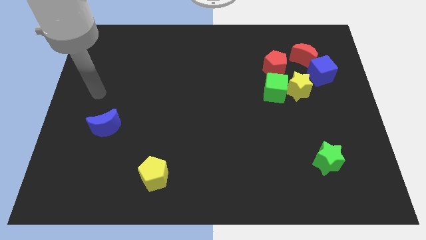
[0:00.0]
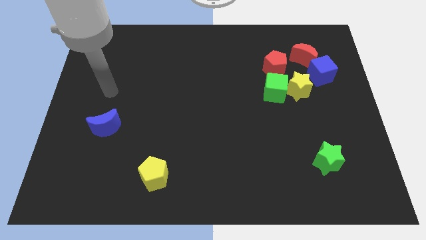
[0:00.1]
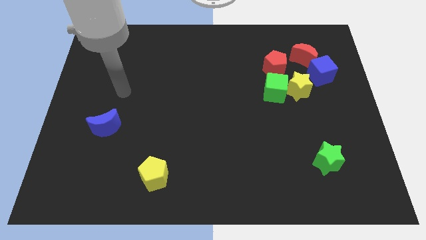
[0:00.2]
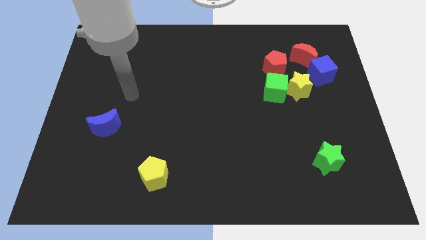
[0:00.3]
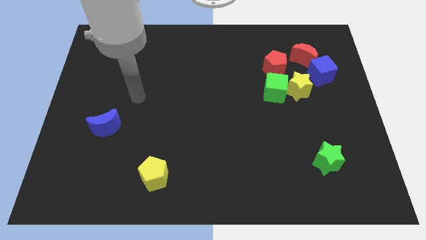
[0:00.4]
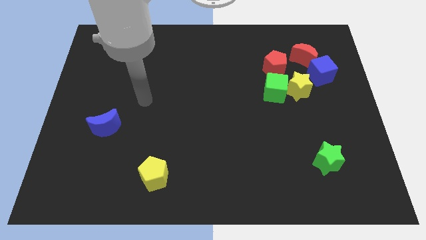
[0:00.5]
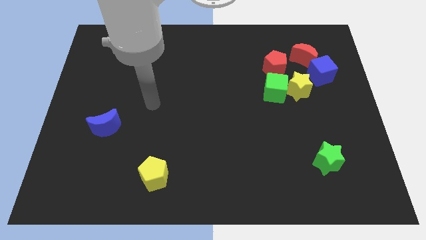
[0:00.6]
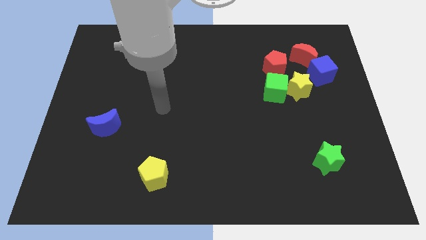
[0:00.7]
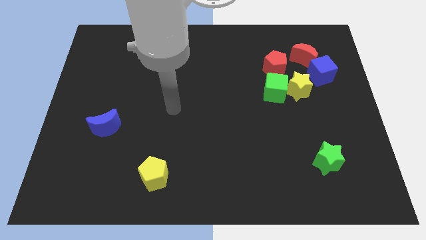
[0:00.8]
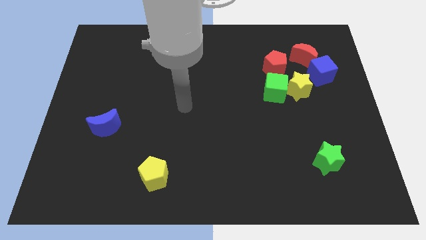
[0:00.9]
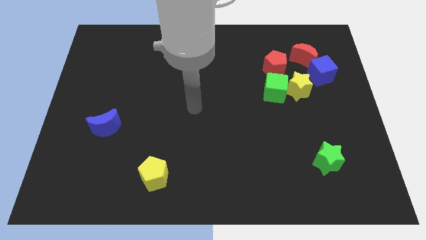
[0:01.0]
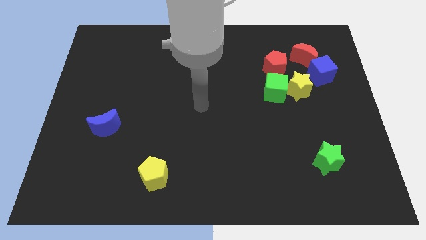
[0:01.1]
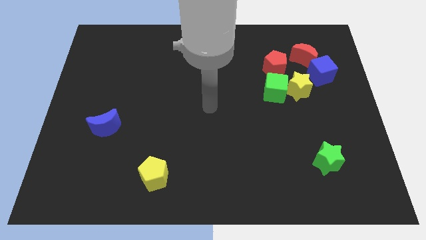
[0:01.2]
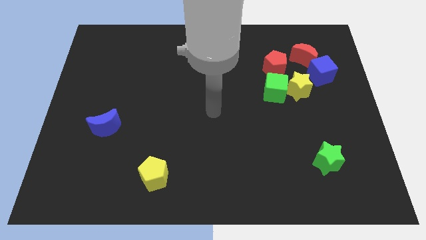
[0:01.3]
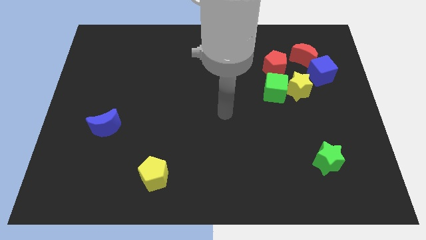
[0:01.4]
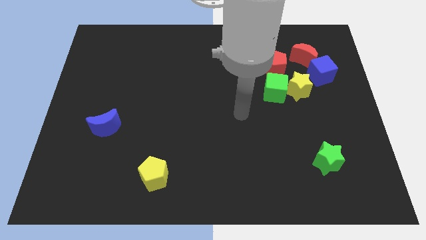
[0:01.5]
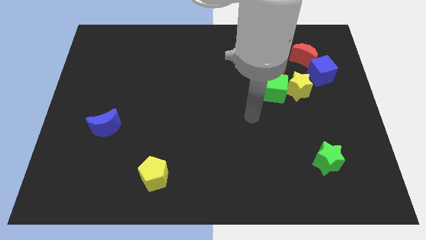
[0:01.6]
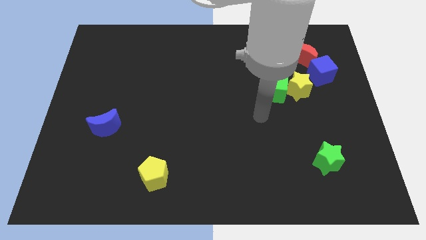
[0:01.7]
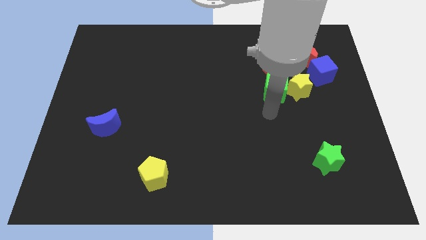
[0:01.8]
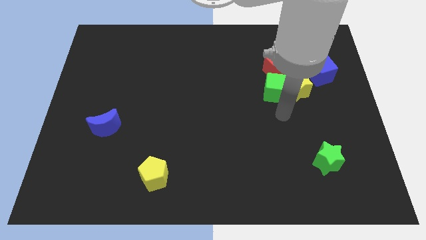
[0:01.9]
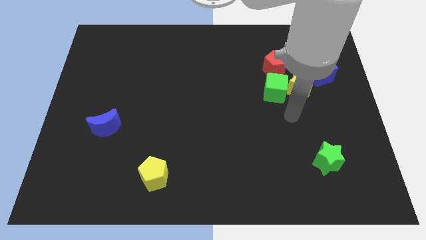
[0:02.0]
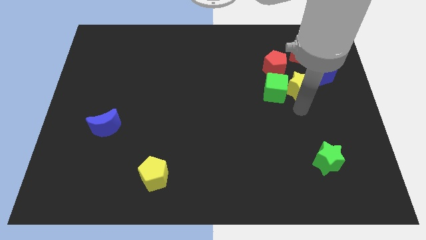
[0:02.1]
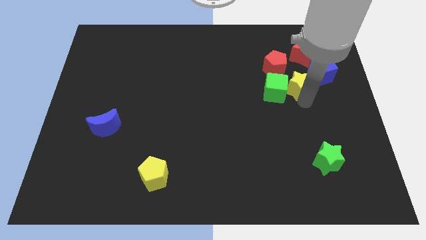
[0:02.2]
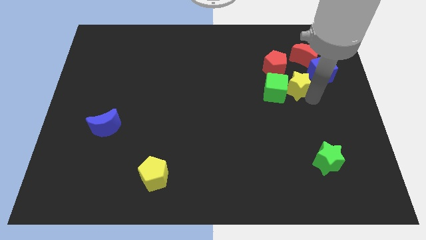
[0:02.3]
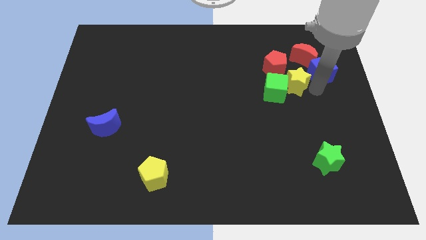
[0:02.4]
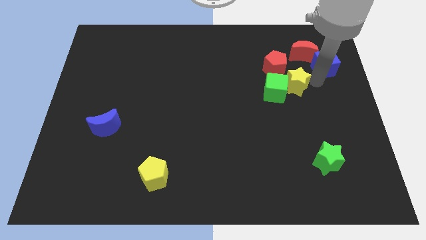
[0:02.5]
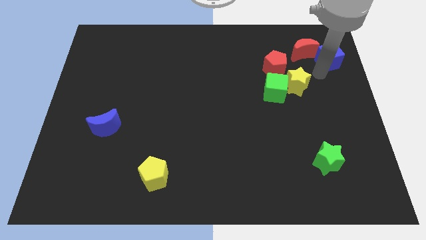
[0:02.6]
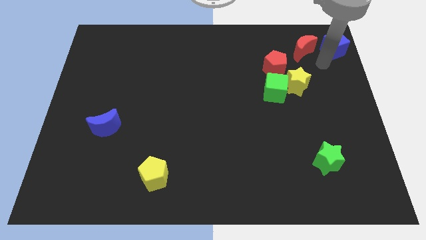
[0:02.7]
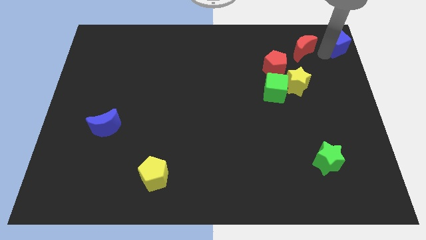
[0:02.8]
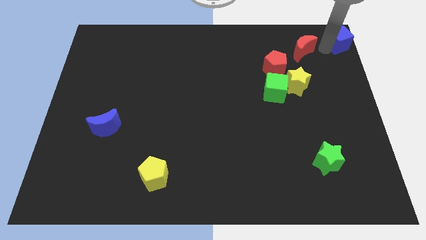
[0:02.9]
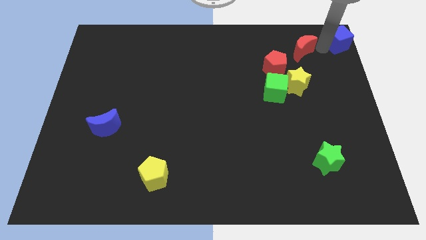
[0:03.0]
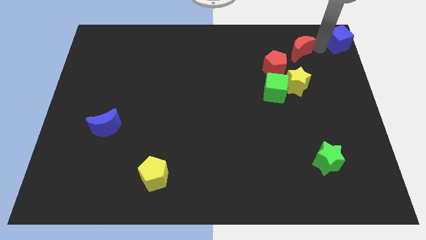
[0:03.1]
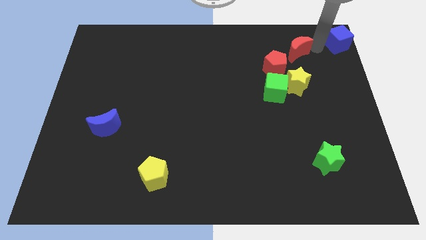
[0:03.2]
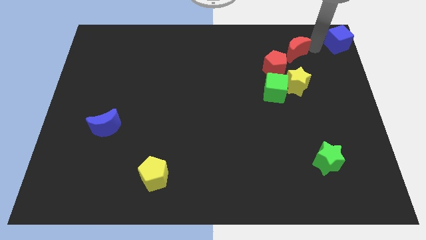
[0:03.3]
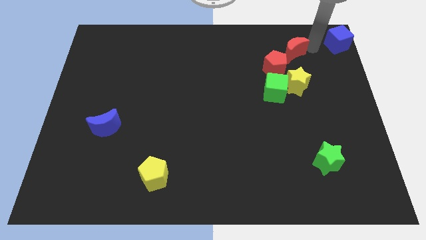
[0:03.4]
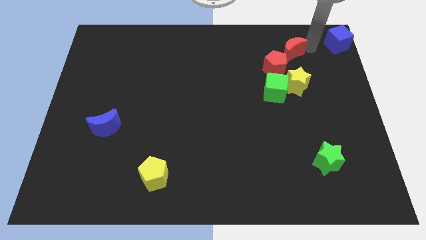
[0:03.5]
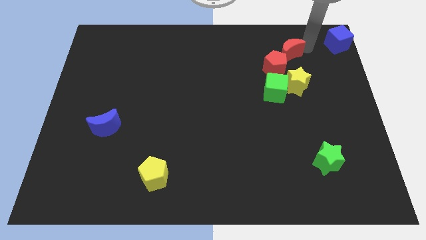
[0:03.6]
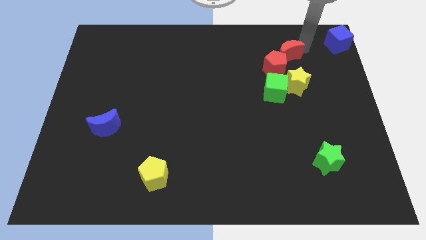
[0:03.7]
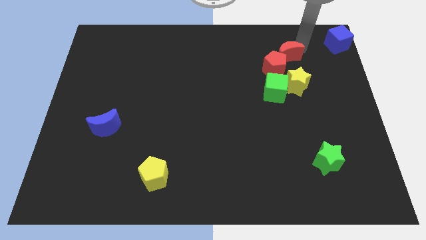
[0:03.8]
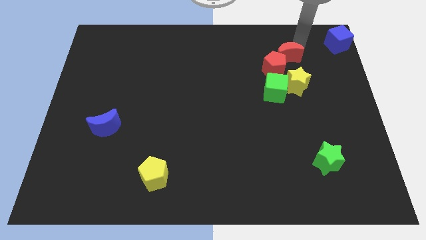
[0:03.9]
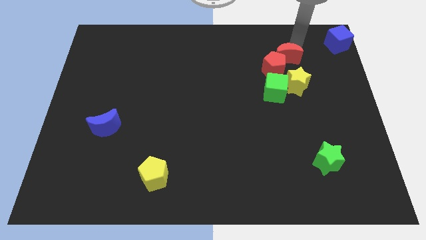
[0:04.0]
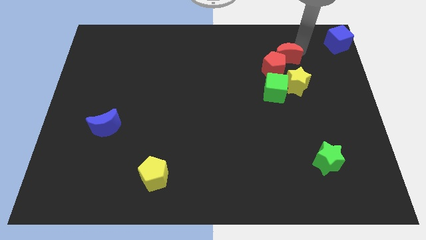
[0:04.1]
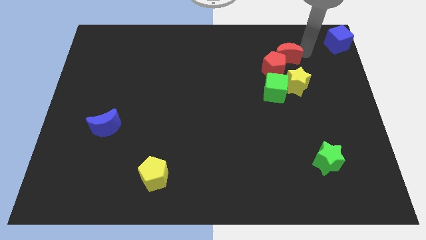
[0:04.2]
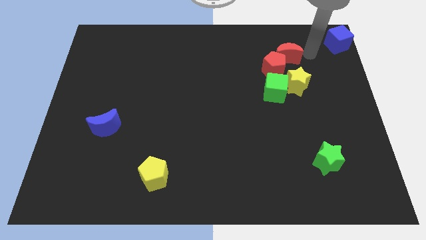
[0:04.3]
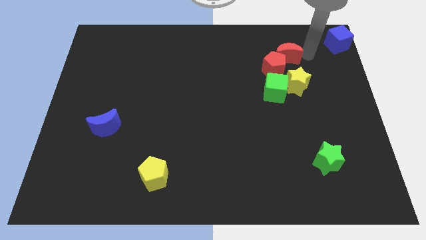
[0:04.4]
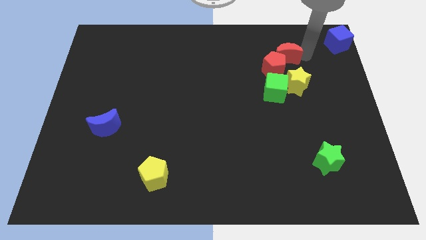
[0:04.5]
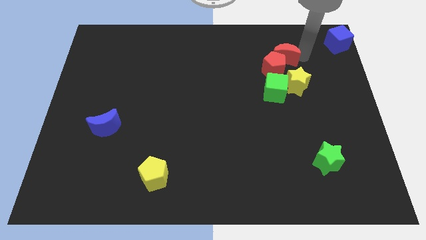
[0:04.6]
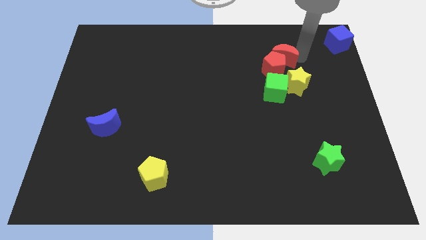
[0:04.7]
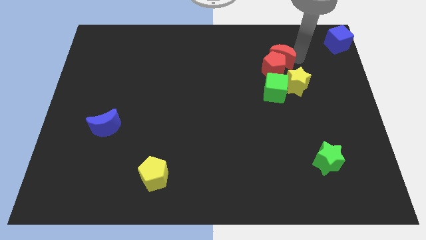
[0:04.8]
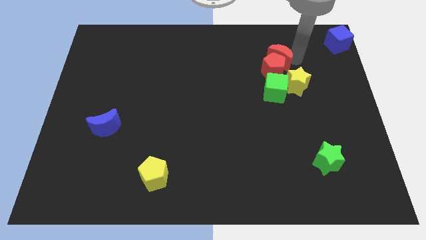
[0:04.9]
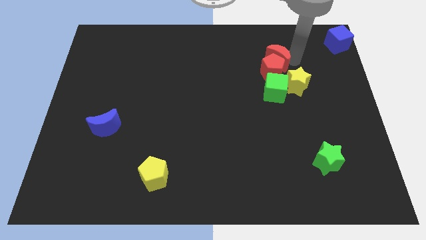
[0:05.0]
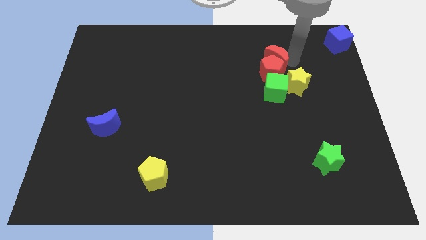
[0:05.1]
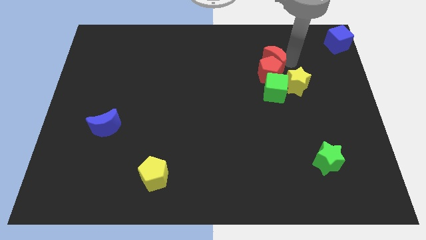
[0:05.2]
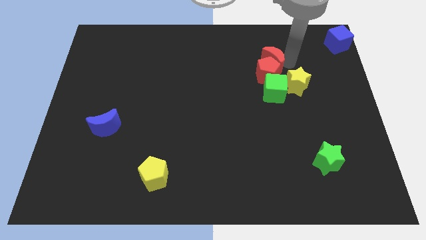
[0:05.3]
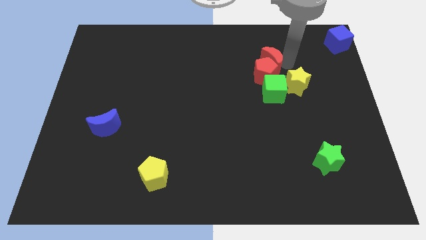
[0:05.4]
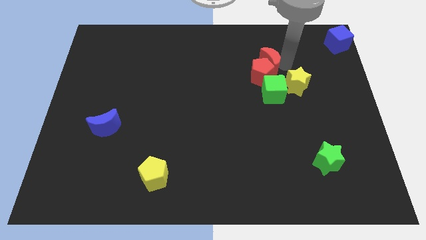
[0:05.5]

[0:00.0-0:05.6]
move the red moon down and left a bit

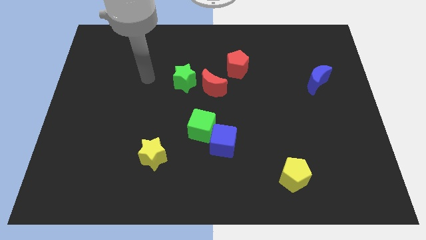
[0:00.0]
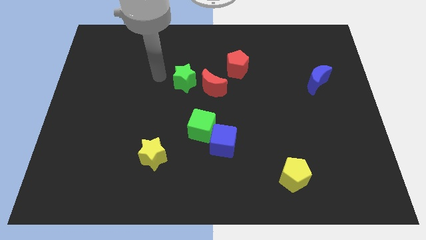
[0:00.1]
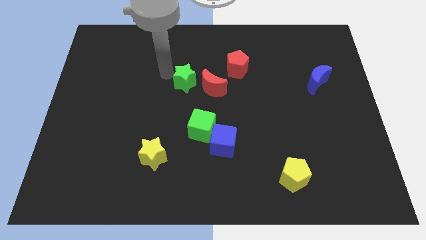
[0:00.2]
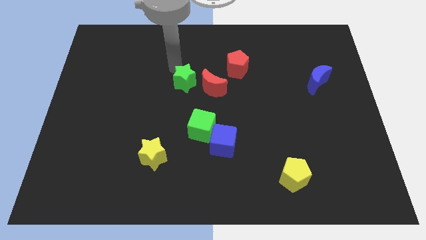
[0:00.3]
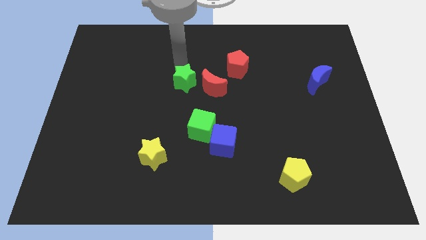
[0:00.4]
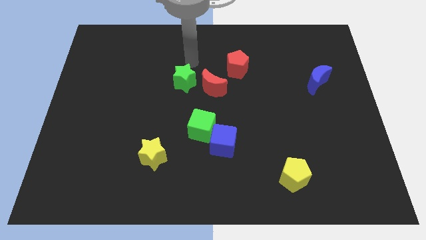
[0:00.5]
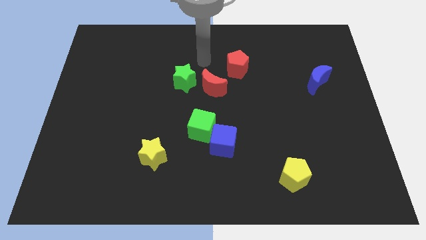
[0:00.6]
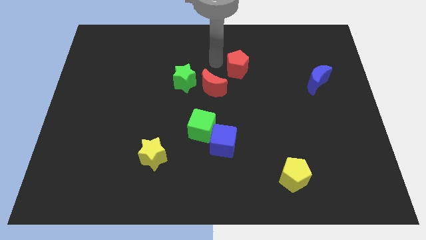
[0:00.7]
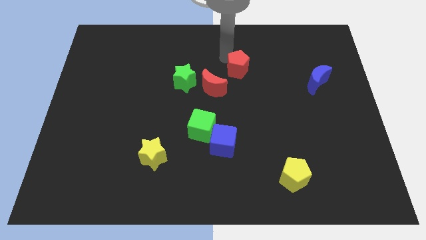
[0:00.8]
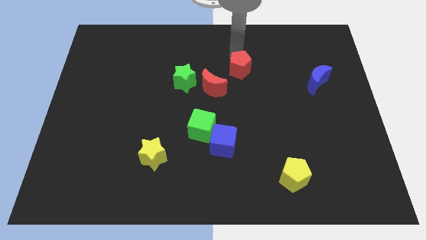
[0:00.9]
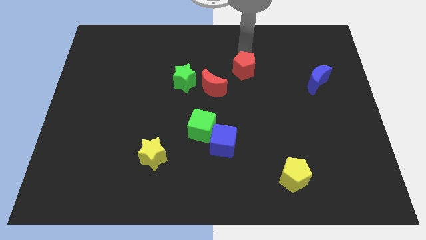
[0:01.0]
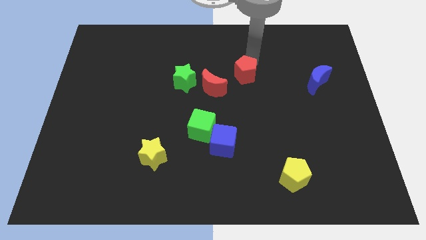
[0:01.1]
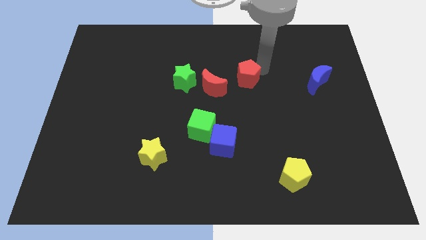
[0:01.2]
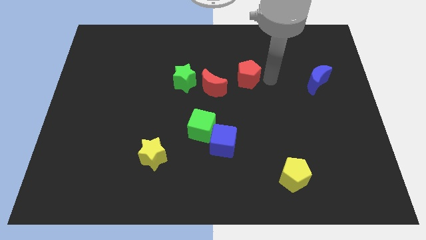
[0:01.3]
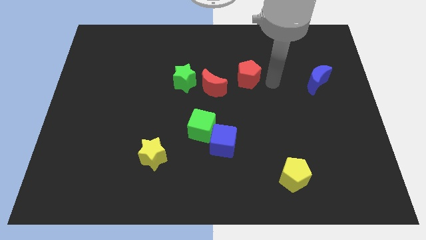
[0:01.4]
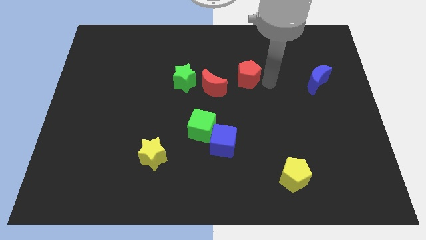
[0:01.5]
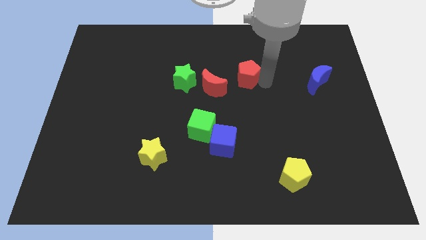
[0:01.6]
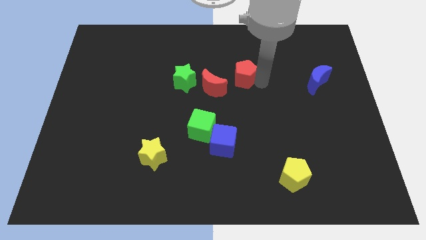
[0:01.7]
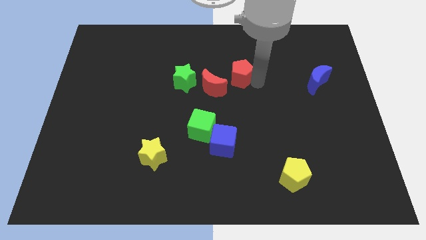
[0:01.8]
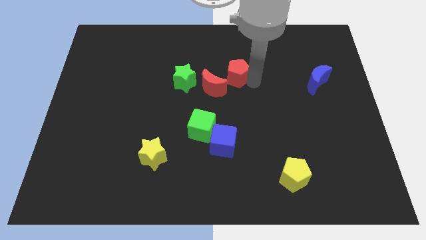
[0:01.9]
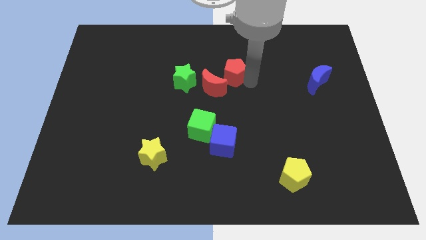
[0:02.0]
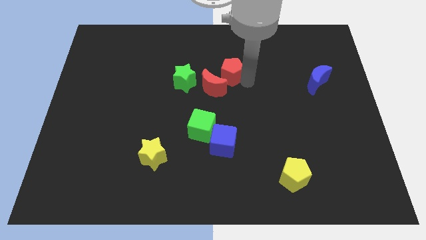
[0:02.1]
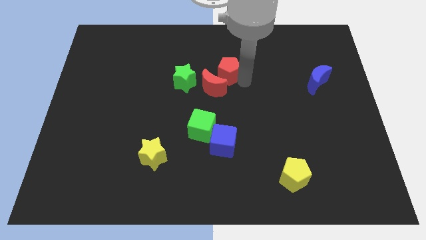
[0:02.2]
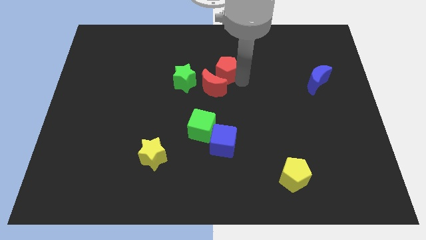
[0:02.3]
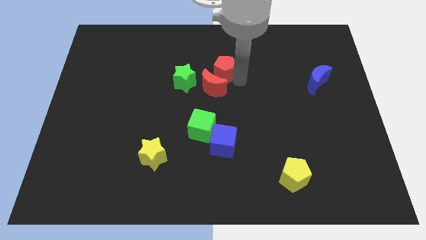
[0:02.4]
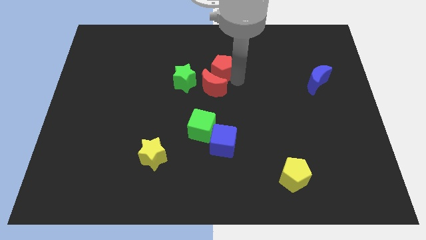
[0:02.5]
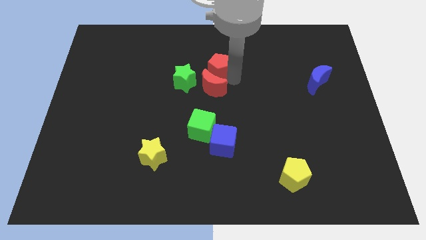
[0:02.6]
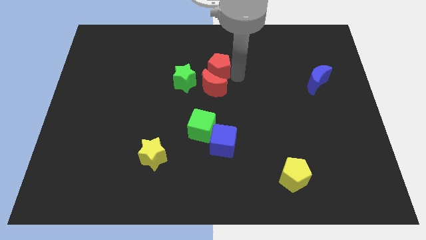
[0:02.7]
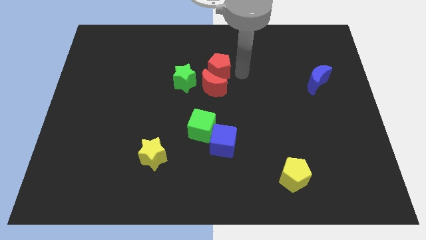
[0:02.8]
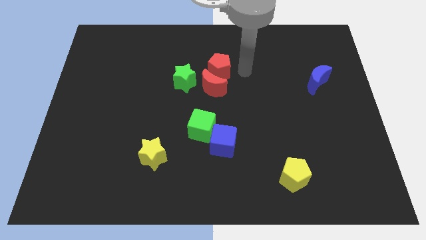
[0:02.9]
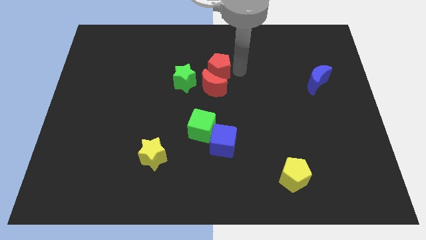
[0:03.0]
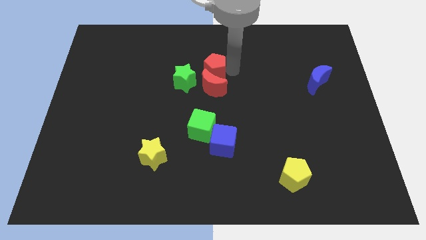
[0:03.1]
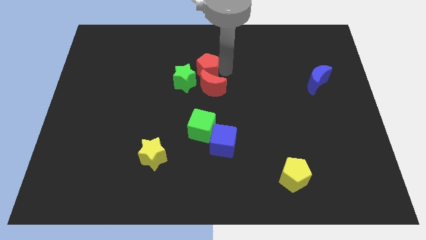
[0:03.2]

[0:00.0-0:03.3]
slightly move the red pentagon to the left
